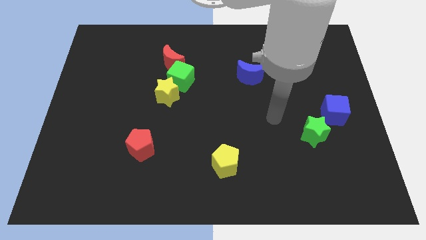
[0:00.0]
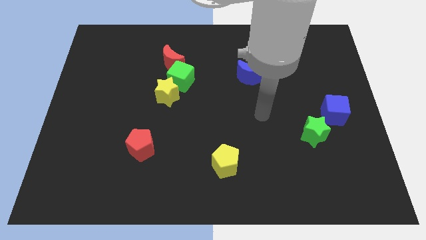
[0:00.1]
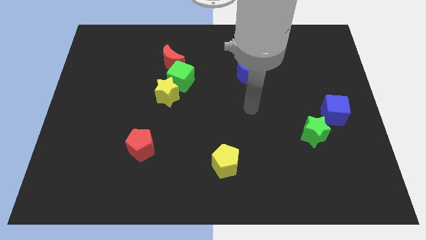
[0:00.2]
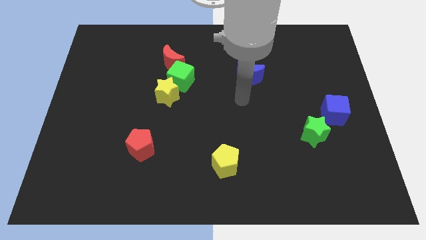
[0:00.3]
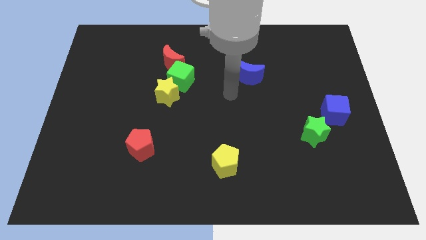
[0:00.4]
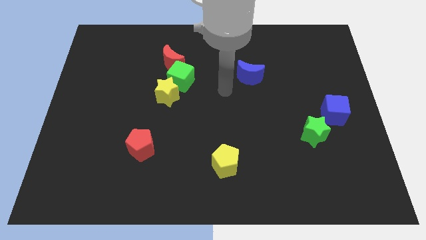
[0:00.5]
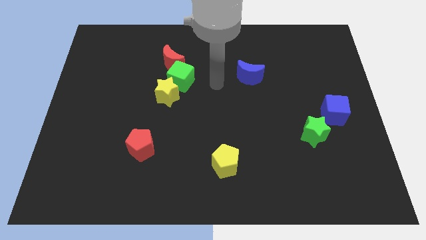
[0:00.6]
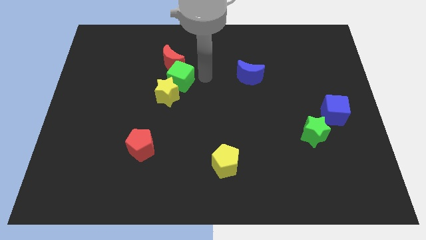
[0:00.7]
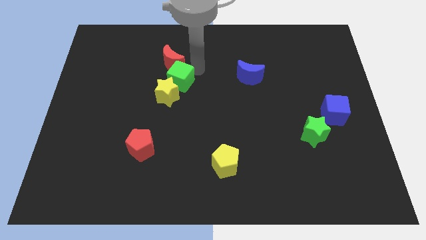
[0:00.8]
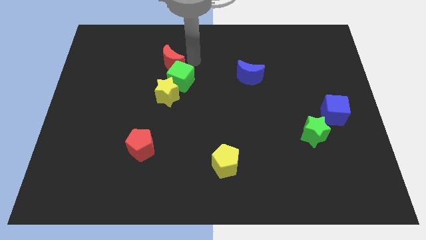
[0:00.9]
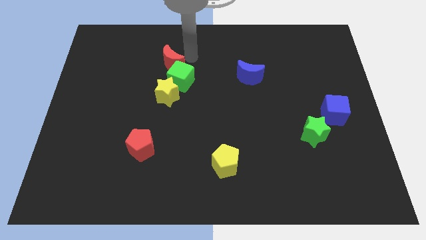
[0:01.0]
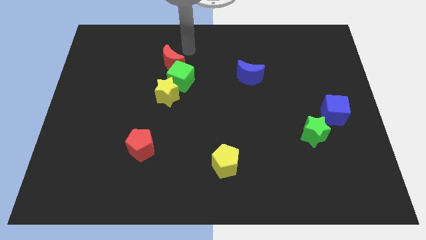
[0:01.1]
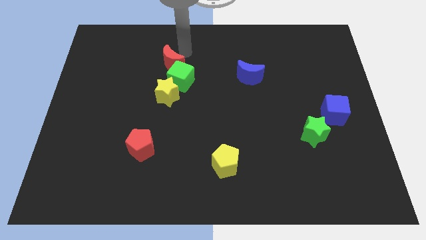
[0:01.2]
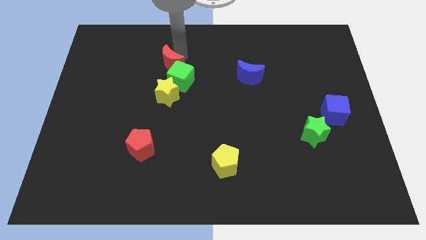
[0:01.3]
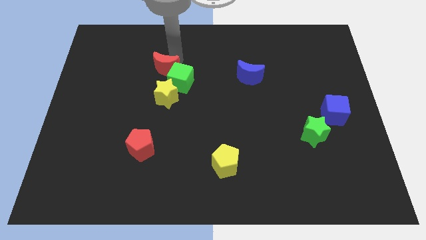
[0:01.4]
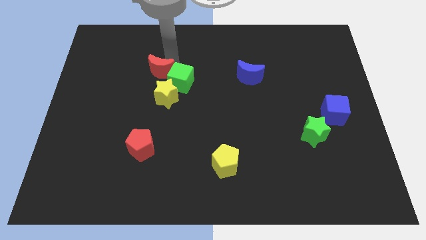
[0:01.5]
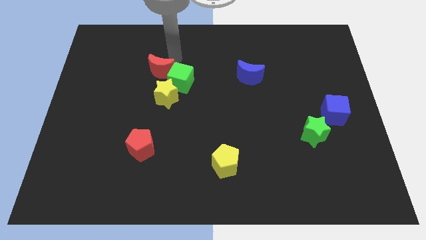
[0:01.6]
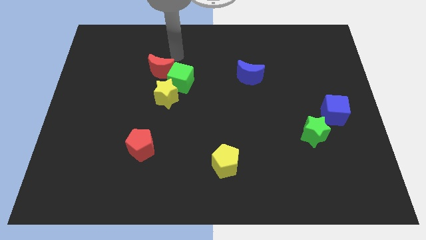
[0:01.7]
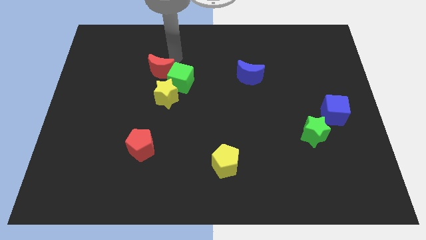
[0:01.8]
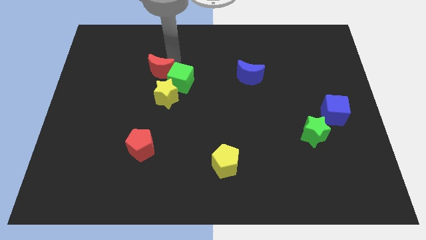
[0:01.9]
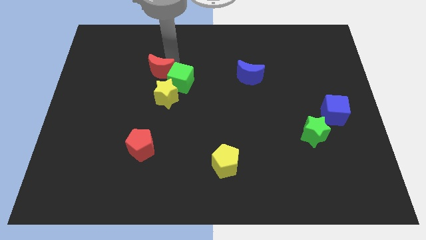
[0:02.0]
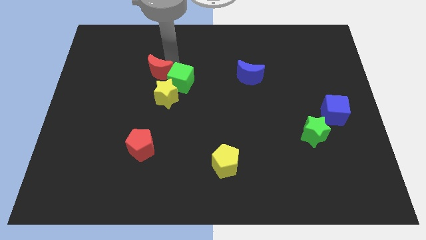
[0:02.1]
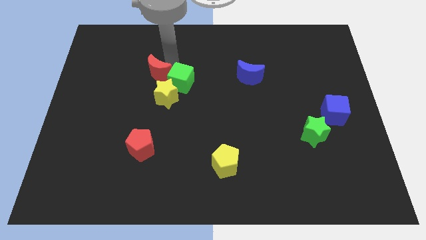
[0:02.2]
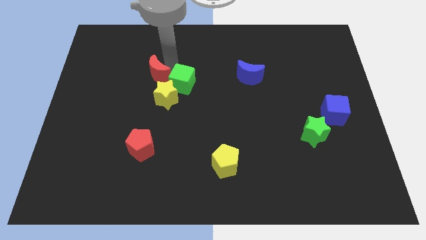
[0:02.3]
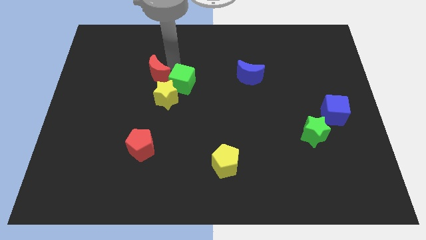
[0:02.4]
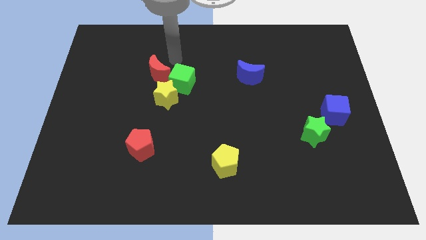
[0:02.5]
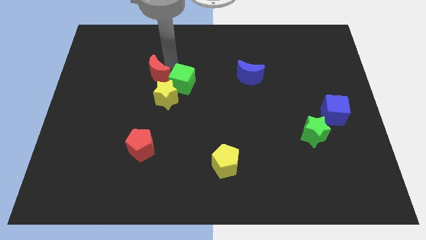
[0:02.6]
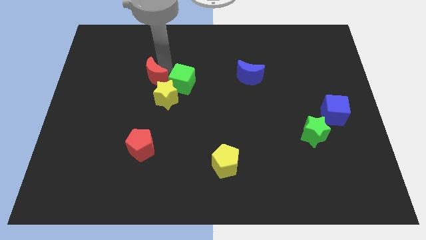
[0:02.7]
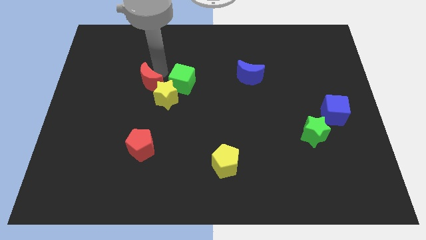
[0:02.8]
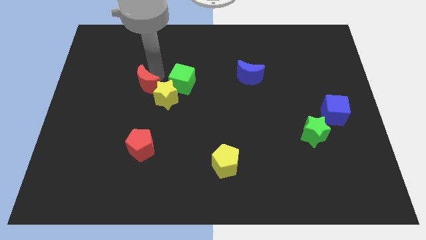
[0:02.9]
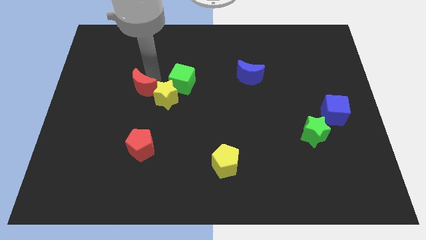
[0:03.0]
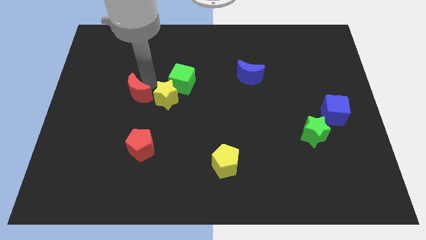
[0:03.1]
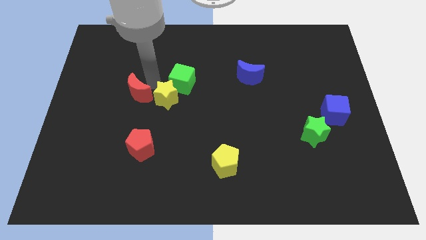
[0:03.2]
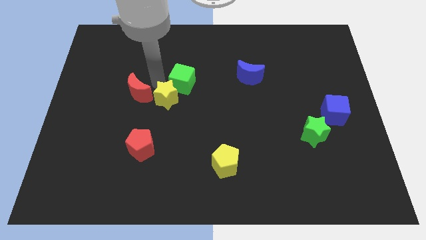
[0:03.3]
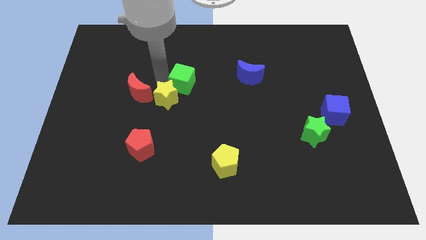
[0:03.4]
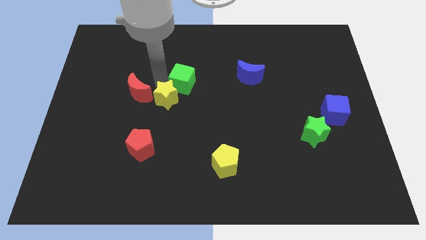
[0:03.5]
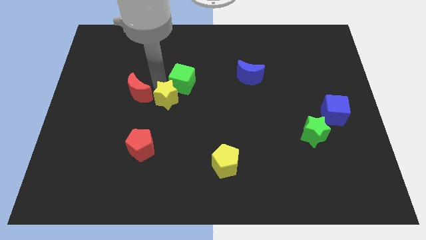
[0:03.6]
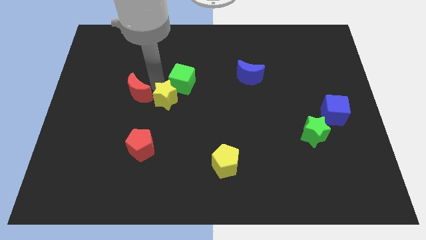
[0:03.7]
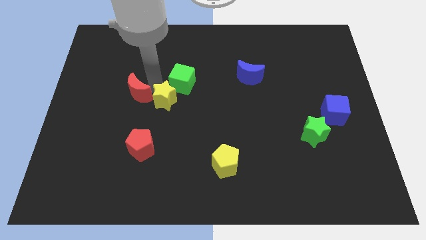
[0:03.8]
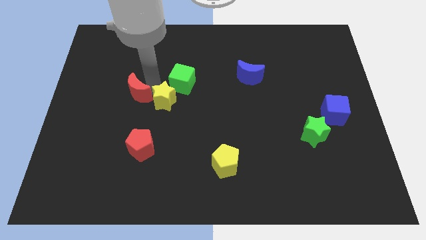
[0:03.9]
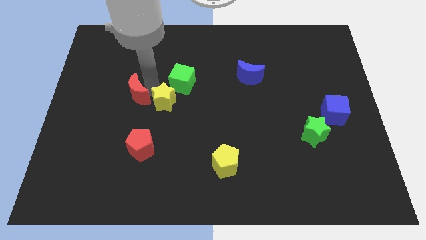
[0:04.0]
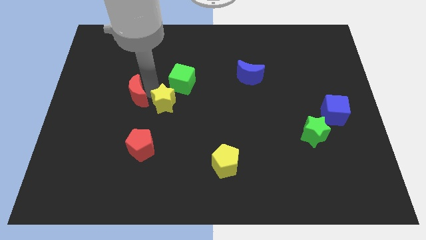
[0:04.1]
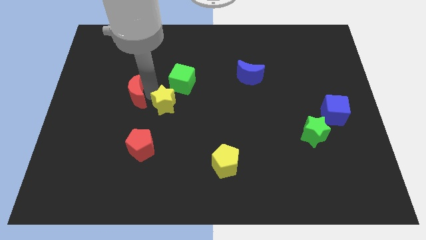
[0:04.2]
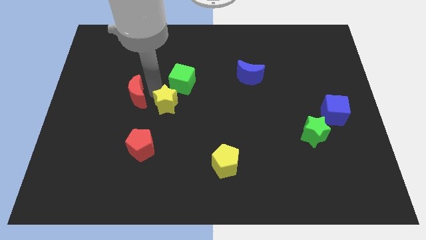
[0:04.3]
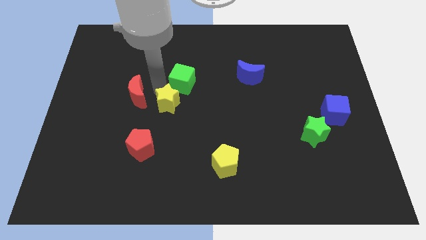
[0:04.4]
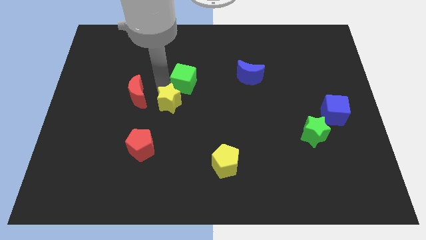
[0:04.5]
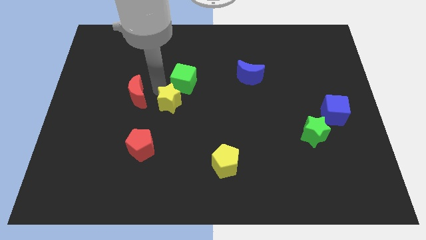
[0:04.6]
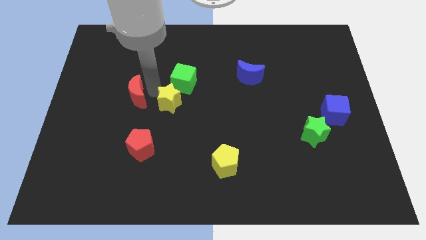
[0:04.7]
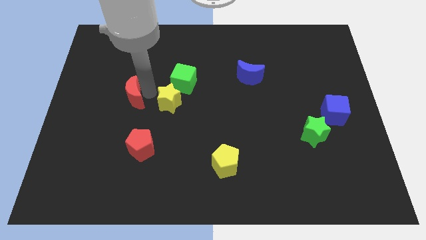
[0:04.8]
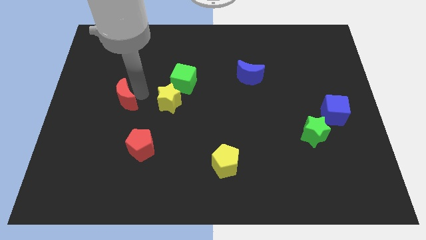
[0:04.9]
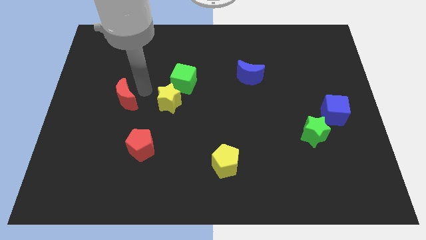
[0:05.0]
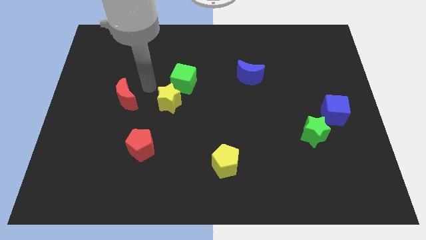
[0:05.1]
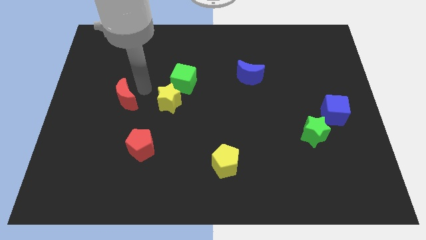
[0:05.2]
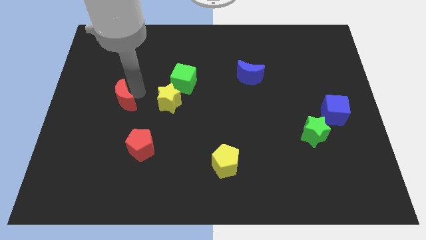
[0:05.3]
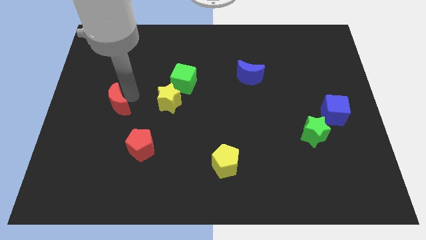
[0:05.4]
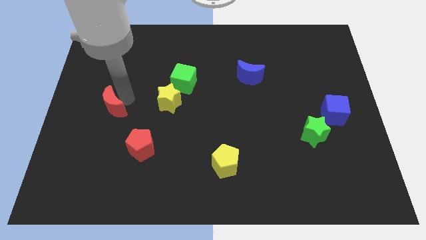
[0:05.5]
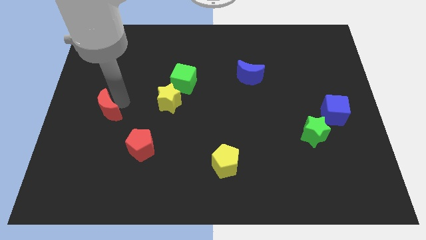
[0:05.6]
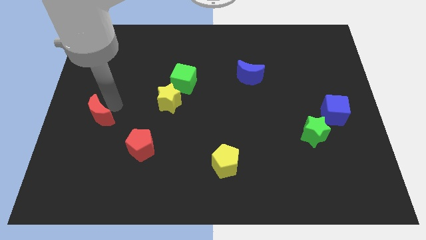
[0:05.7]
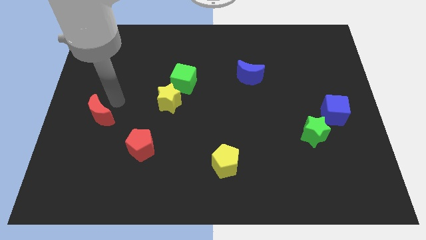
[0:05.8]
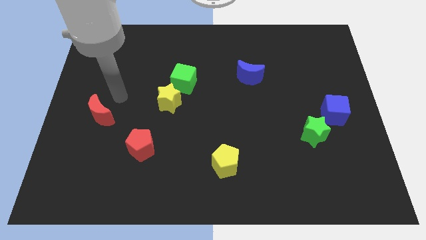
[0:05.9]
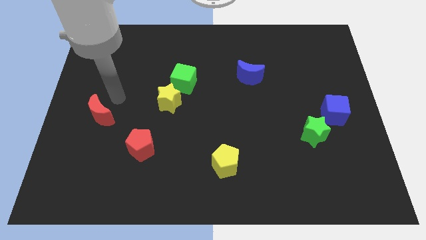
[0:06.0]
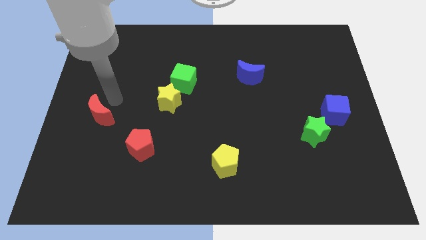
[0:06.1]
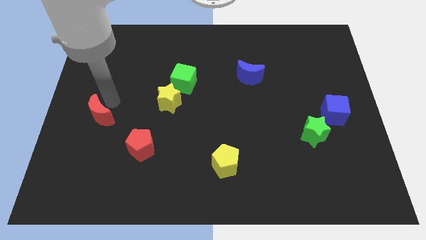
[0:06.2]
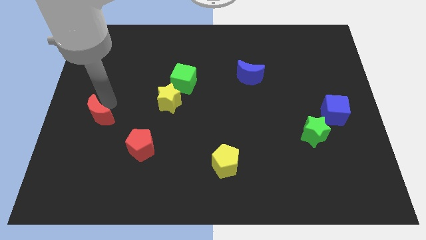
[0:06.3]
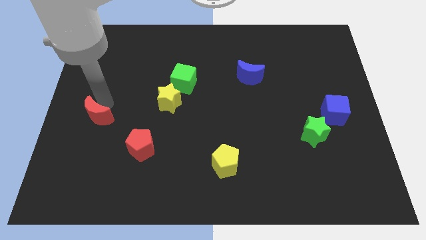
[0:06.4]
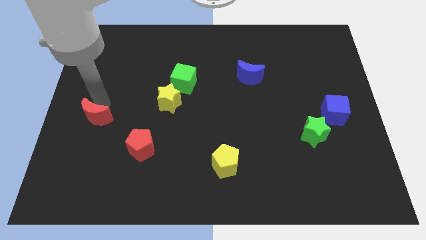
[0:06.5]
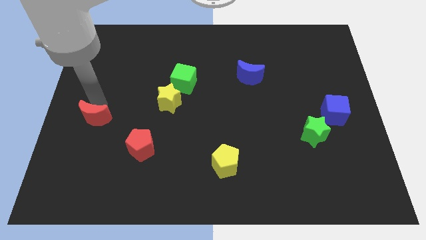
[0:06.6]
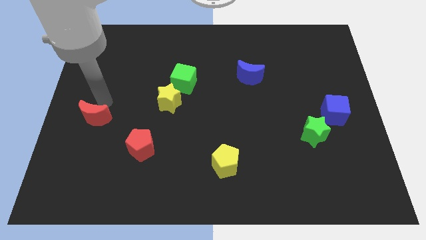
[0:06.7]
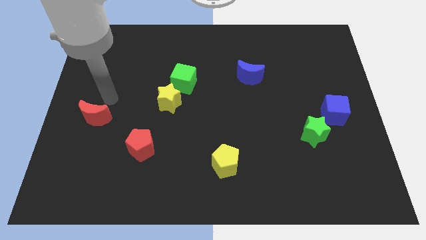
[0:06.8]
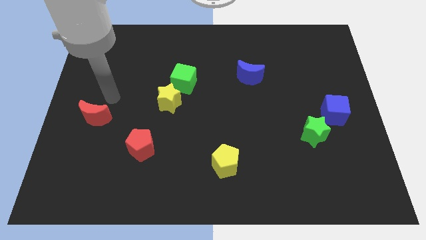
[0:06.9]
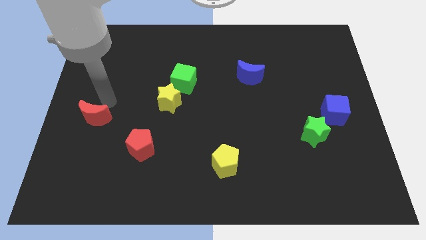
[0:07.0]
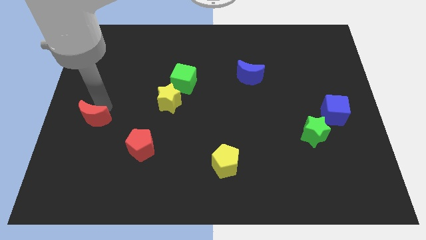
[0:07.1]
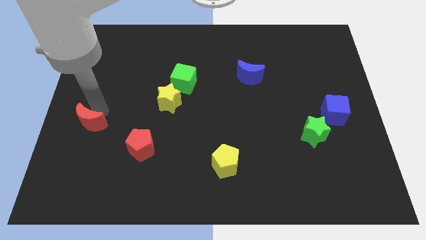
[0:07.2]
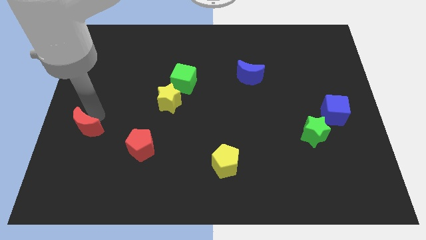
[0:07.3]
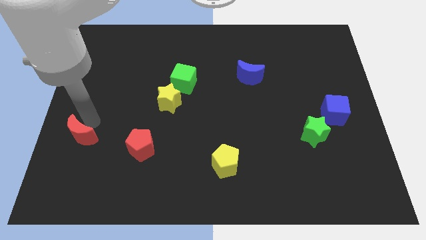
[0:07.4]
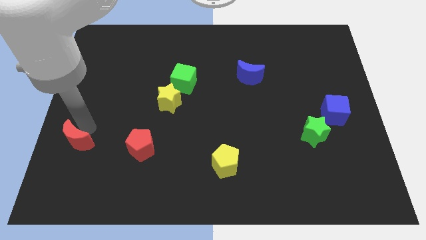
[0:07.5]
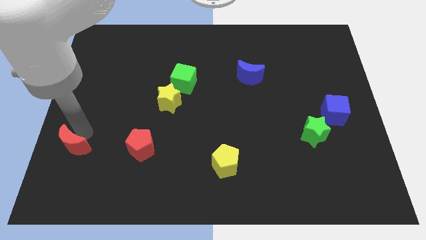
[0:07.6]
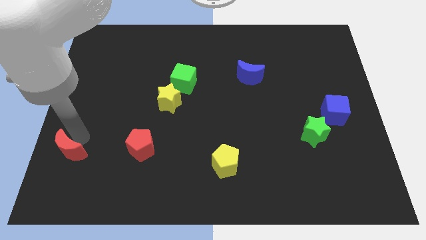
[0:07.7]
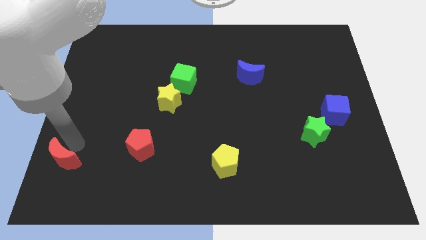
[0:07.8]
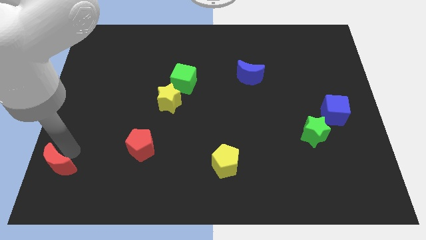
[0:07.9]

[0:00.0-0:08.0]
move the red moon to the bottom left
